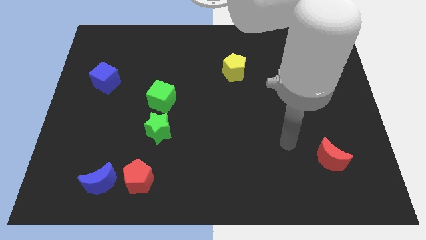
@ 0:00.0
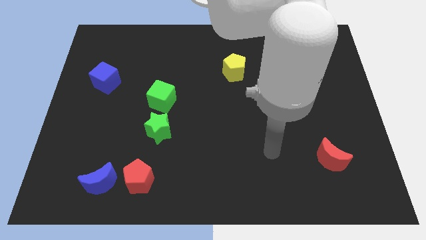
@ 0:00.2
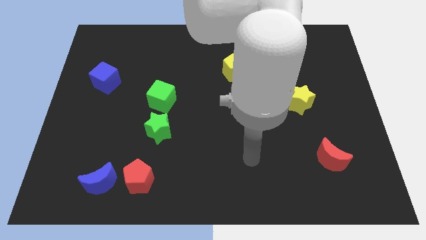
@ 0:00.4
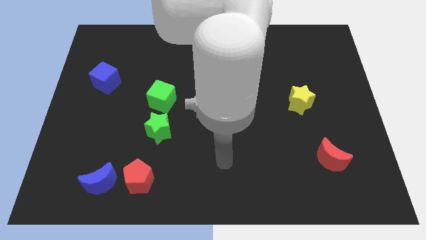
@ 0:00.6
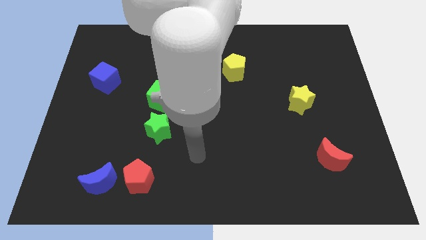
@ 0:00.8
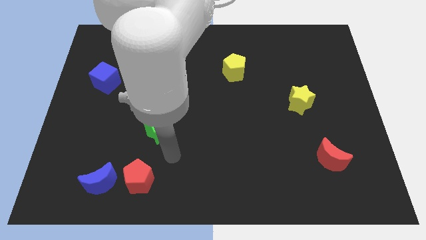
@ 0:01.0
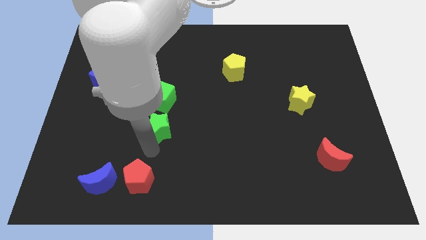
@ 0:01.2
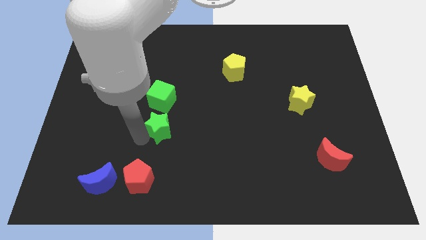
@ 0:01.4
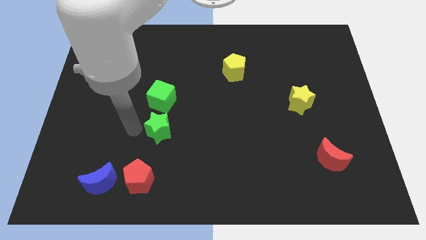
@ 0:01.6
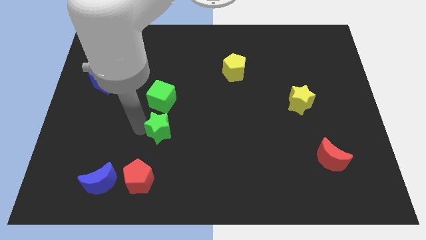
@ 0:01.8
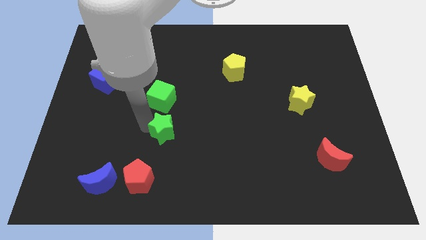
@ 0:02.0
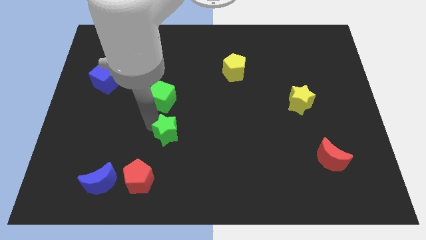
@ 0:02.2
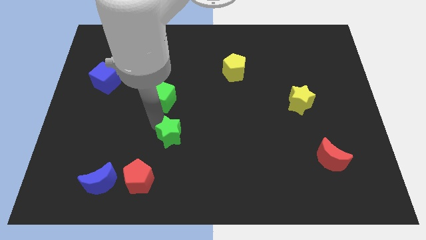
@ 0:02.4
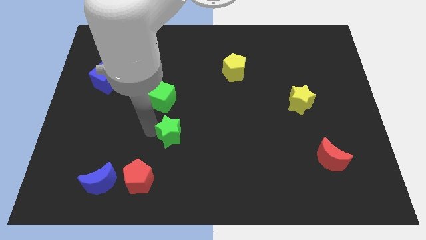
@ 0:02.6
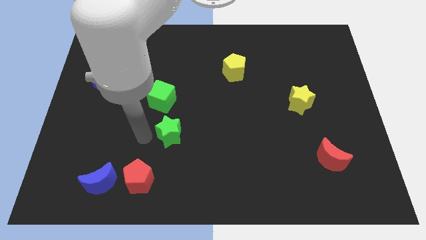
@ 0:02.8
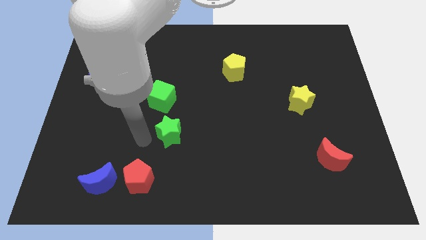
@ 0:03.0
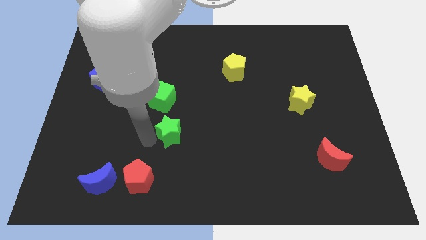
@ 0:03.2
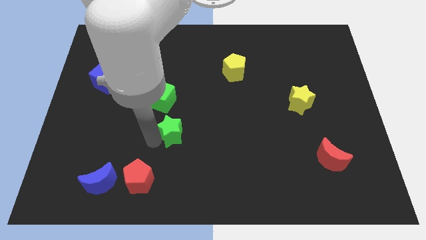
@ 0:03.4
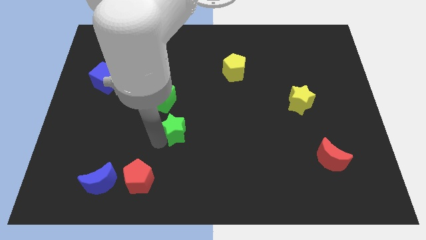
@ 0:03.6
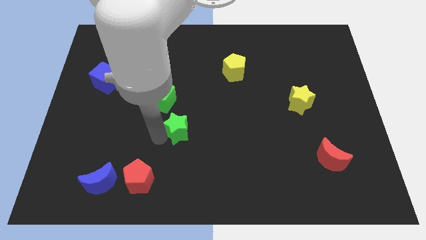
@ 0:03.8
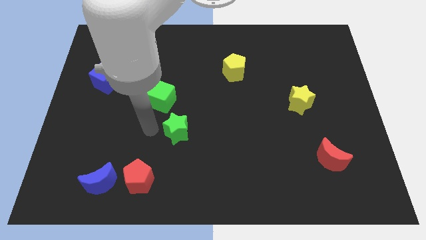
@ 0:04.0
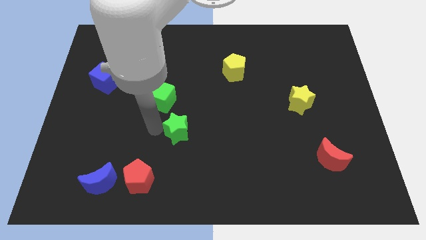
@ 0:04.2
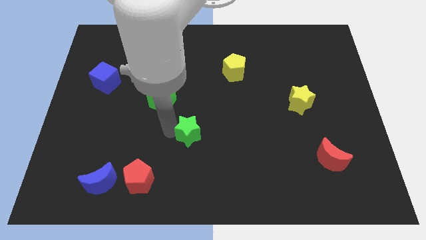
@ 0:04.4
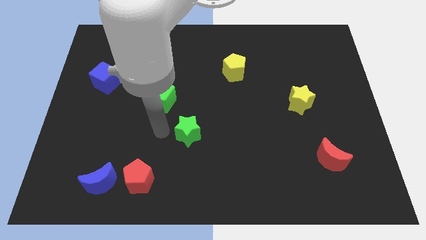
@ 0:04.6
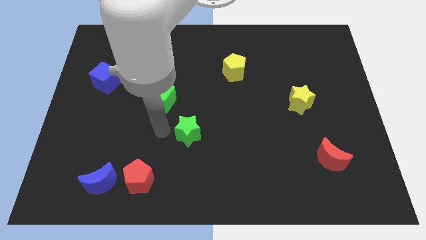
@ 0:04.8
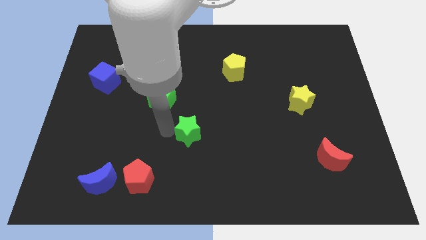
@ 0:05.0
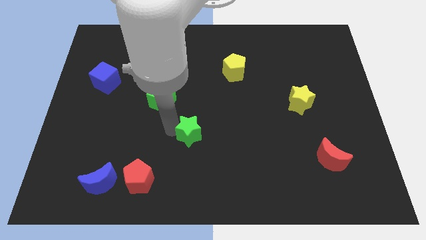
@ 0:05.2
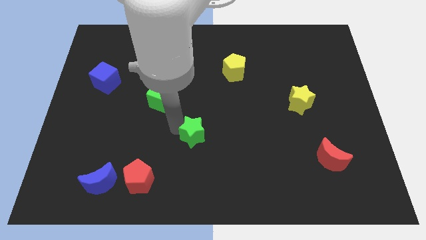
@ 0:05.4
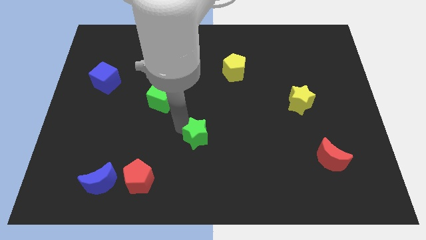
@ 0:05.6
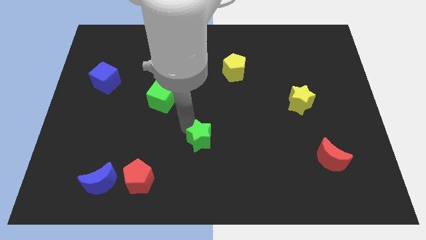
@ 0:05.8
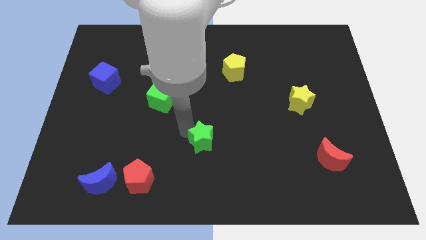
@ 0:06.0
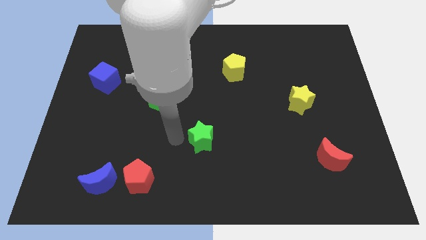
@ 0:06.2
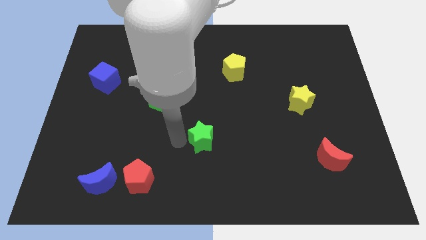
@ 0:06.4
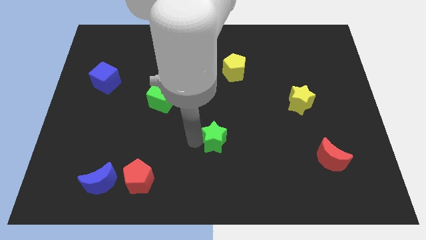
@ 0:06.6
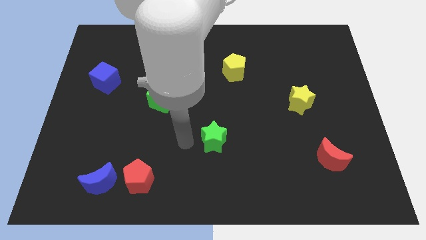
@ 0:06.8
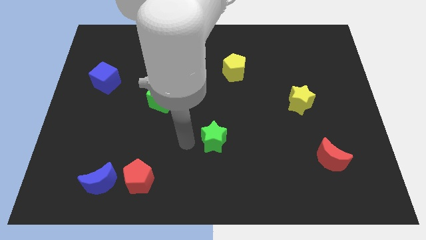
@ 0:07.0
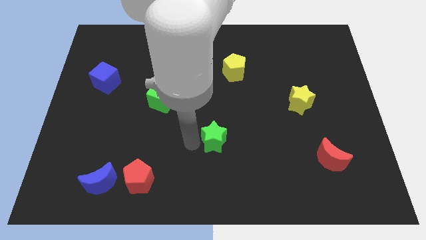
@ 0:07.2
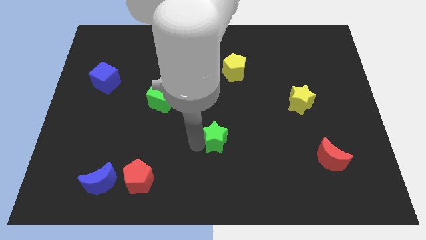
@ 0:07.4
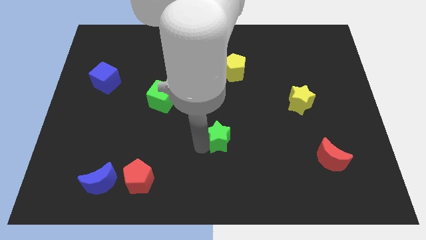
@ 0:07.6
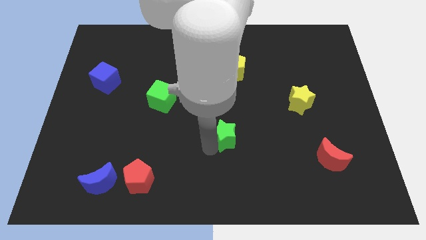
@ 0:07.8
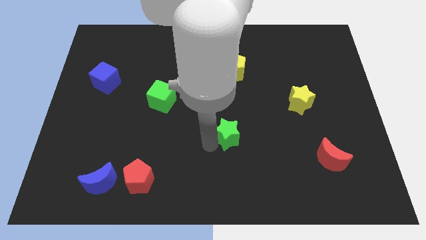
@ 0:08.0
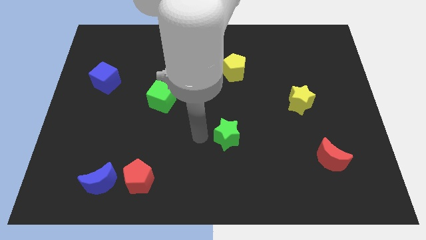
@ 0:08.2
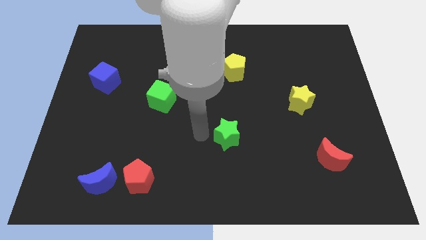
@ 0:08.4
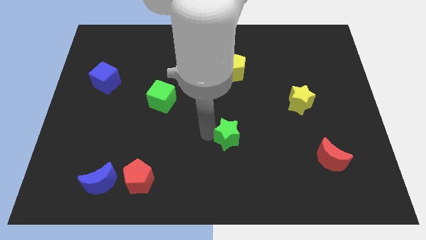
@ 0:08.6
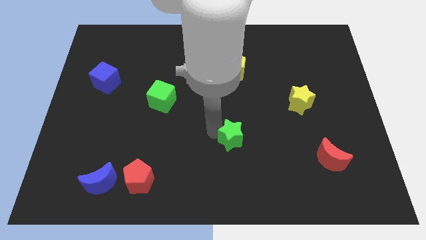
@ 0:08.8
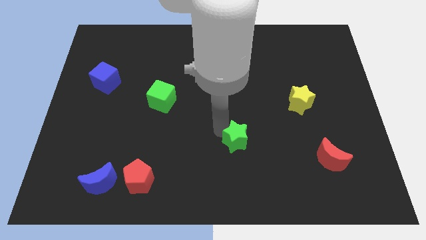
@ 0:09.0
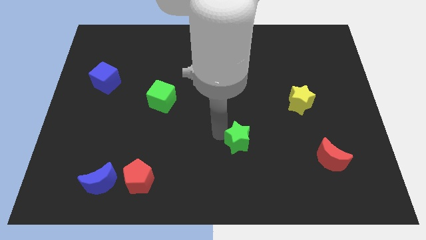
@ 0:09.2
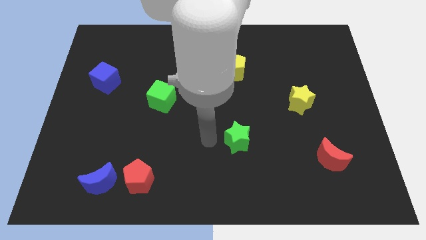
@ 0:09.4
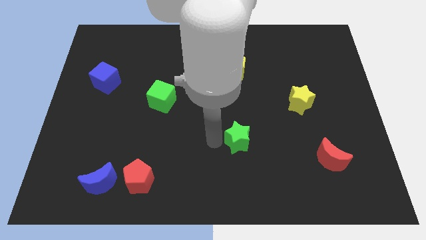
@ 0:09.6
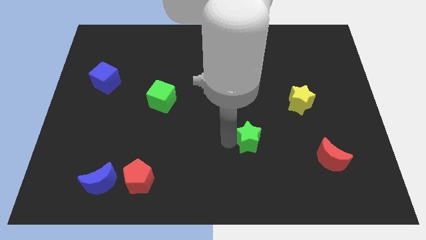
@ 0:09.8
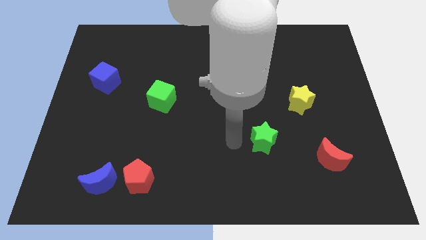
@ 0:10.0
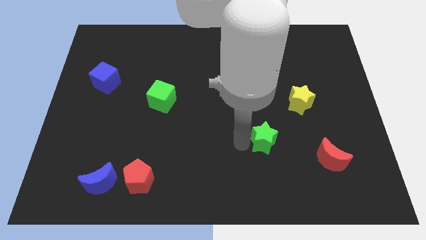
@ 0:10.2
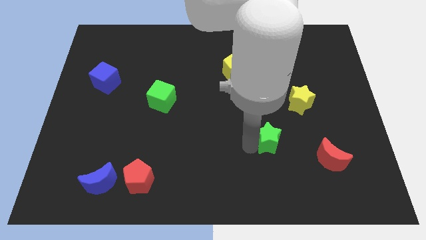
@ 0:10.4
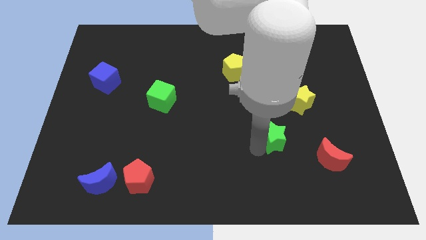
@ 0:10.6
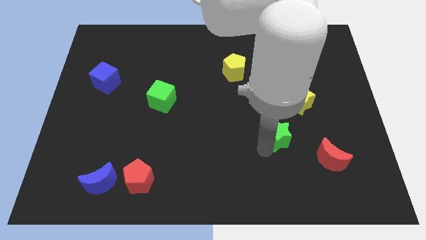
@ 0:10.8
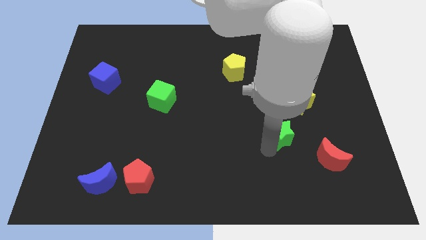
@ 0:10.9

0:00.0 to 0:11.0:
move the green star diagonally up and to the left of the red moon

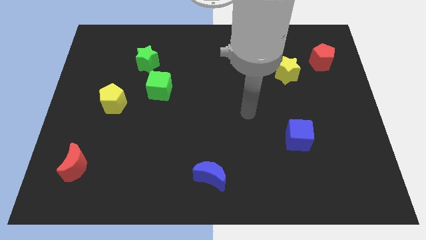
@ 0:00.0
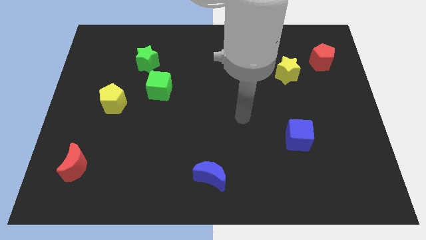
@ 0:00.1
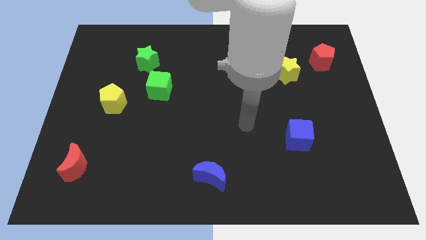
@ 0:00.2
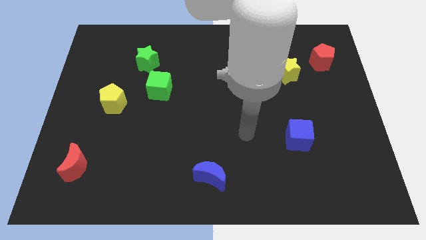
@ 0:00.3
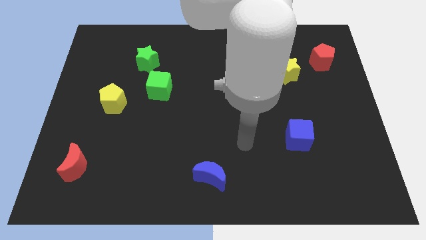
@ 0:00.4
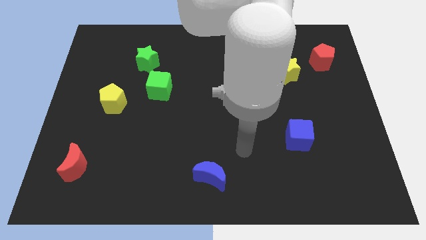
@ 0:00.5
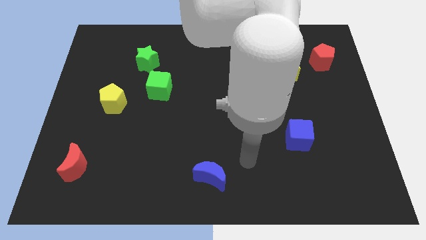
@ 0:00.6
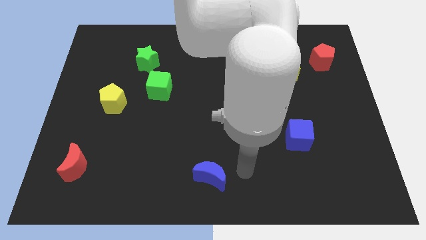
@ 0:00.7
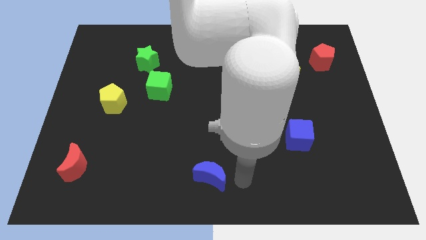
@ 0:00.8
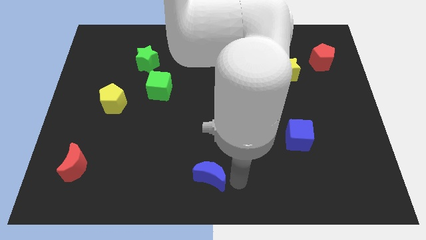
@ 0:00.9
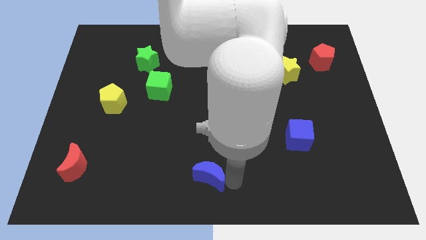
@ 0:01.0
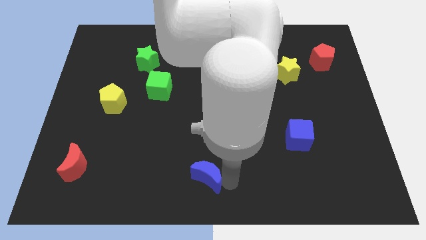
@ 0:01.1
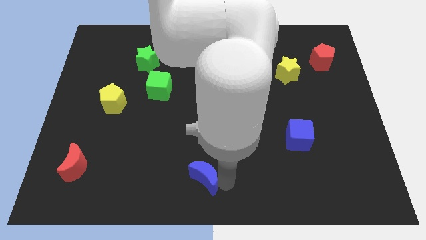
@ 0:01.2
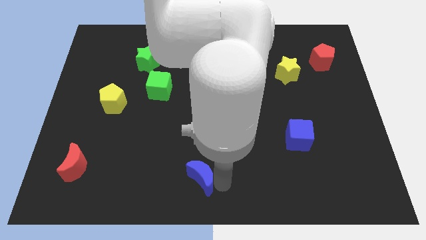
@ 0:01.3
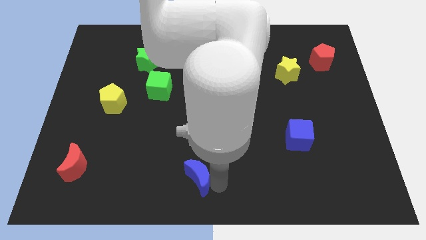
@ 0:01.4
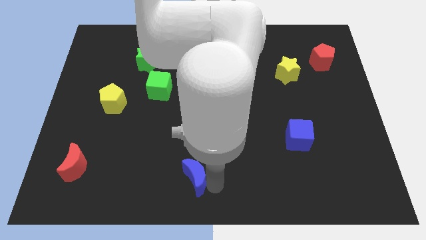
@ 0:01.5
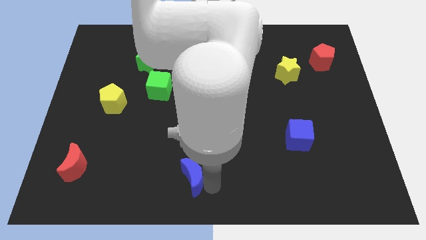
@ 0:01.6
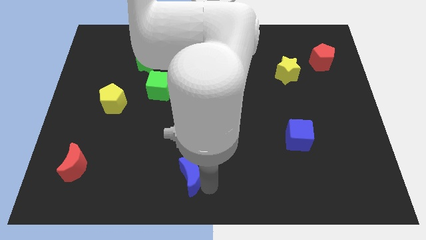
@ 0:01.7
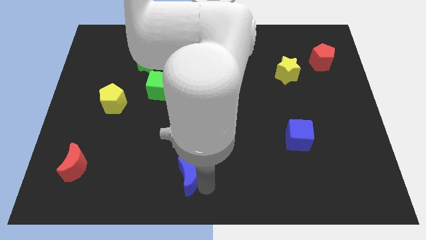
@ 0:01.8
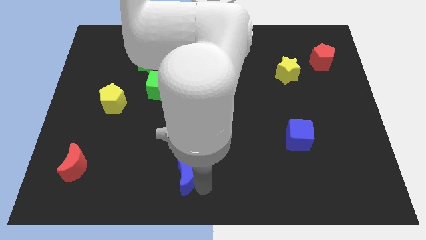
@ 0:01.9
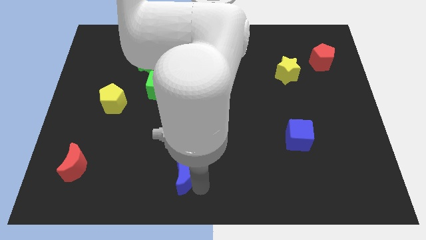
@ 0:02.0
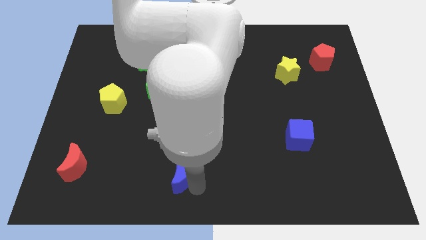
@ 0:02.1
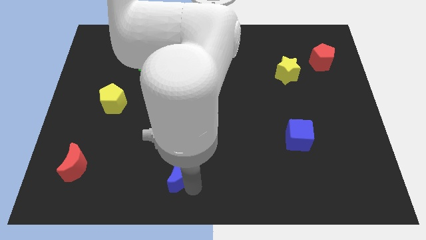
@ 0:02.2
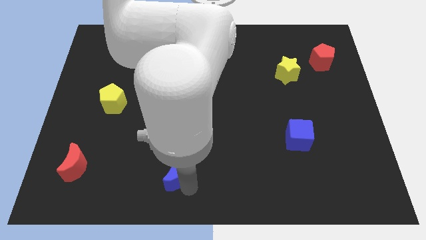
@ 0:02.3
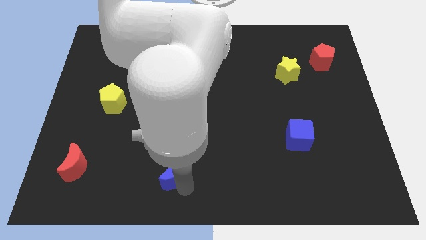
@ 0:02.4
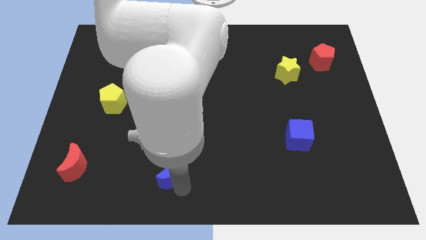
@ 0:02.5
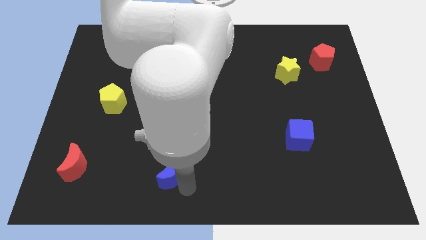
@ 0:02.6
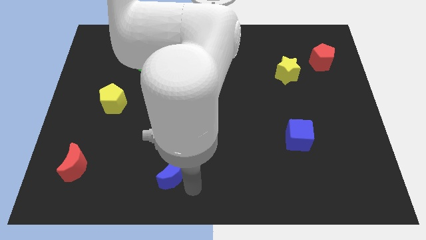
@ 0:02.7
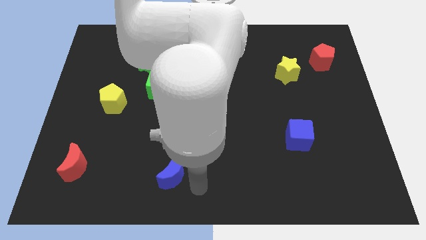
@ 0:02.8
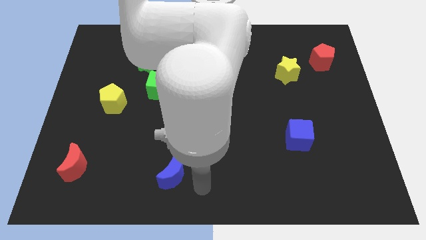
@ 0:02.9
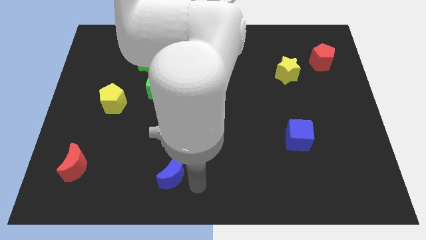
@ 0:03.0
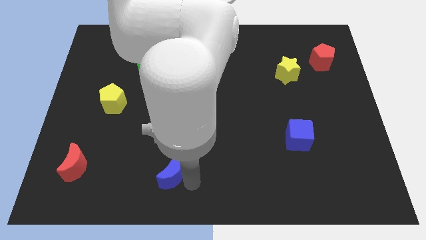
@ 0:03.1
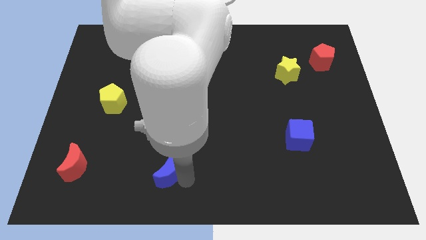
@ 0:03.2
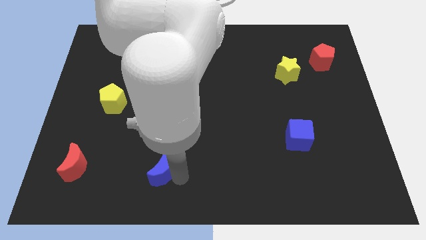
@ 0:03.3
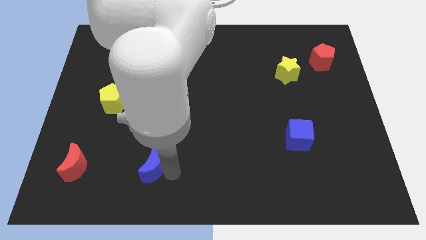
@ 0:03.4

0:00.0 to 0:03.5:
slide the blue moon right of the red moon
